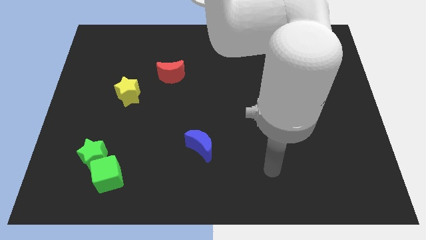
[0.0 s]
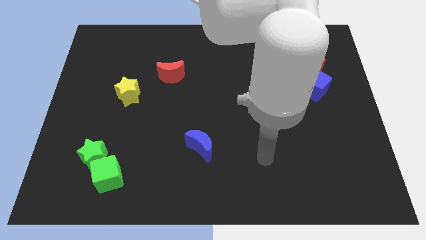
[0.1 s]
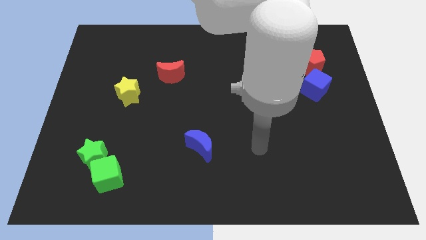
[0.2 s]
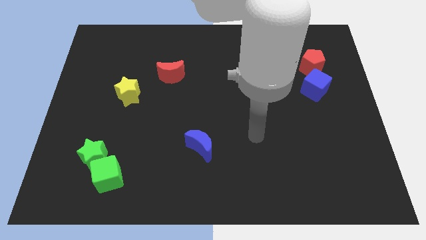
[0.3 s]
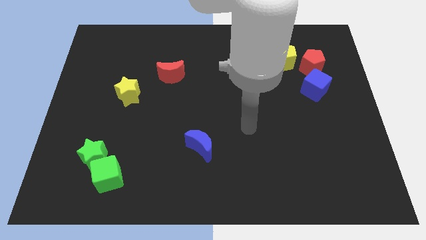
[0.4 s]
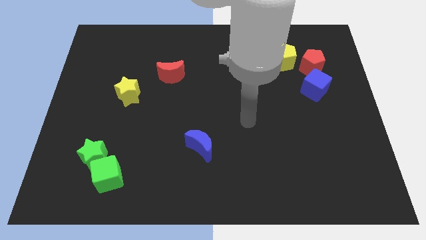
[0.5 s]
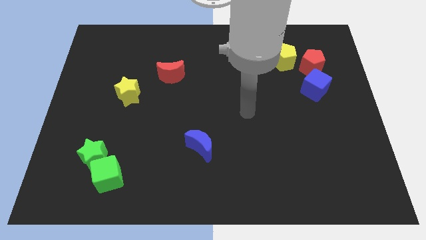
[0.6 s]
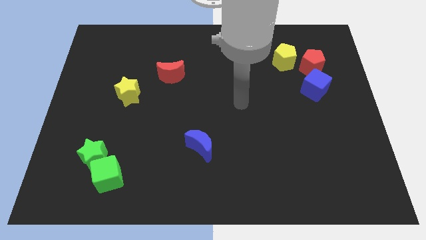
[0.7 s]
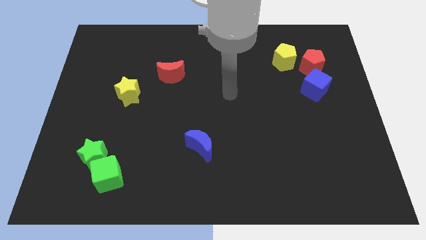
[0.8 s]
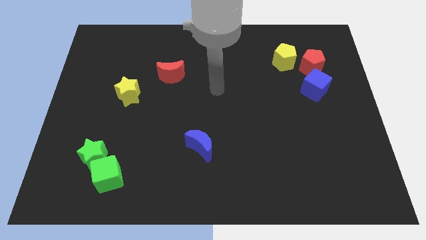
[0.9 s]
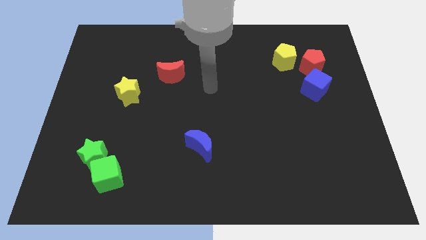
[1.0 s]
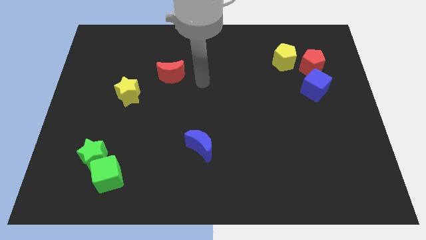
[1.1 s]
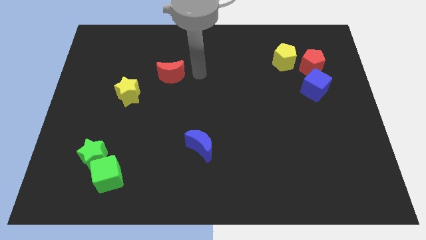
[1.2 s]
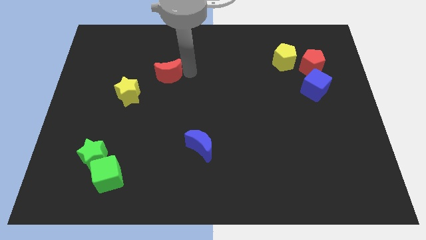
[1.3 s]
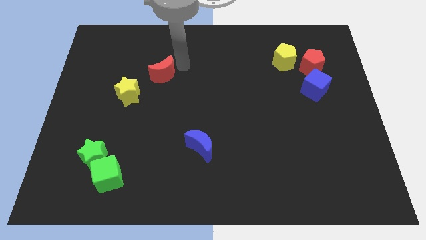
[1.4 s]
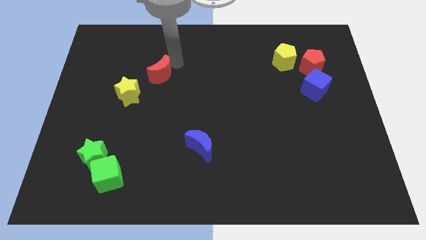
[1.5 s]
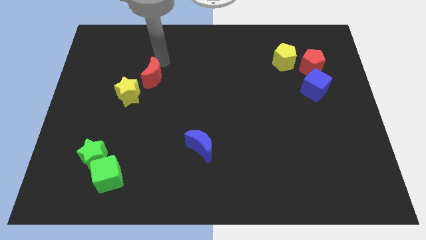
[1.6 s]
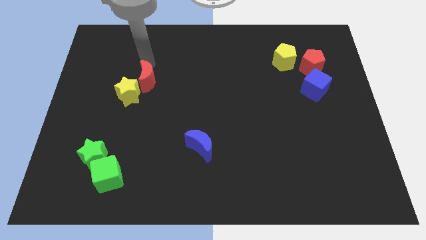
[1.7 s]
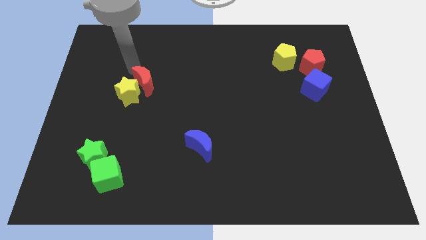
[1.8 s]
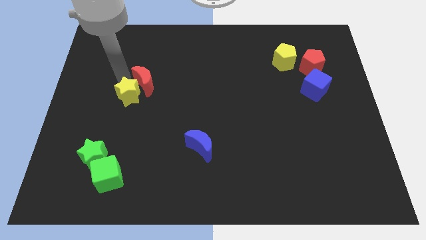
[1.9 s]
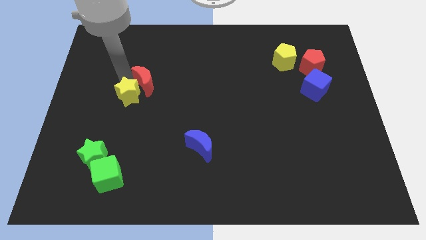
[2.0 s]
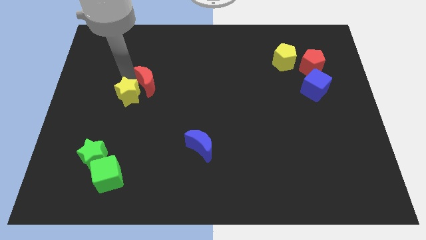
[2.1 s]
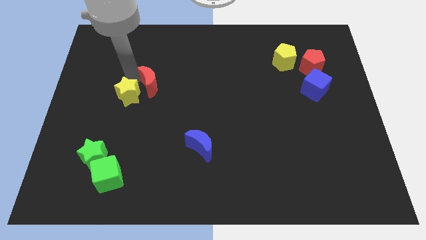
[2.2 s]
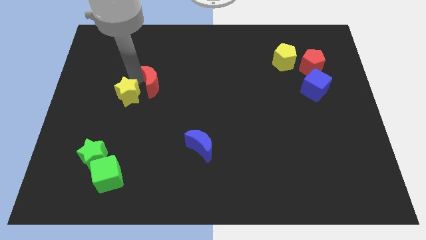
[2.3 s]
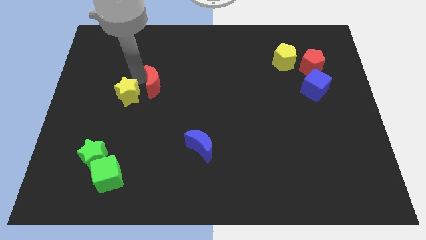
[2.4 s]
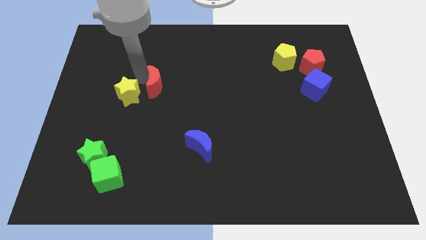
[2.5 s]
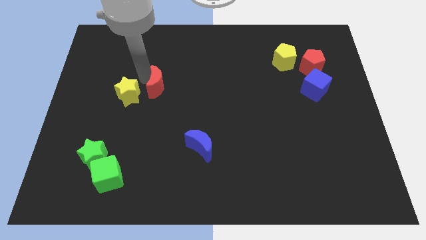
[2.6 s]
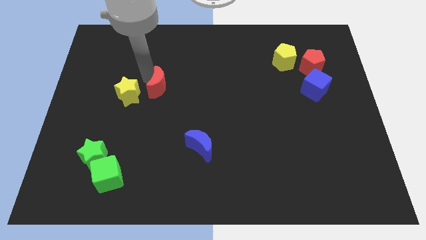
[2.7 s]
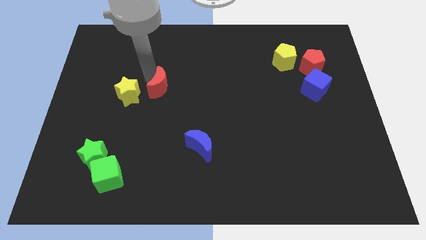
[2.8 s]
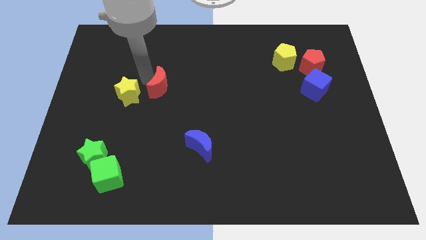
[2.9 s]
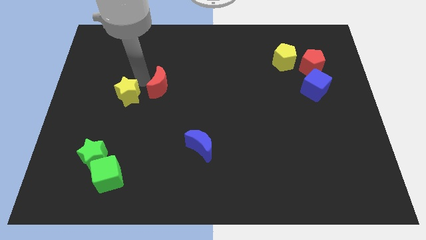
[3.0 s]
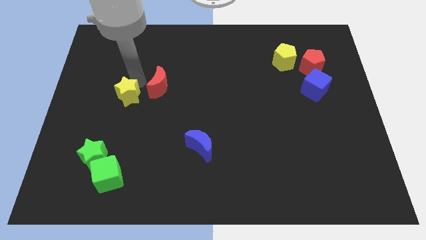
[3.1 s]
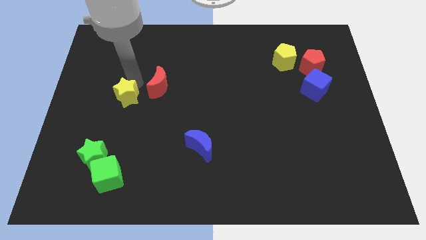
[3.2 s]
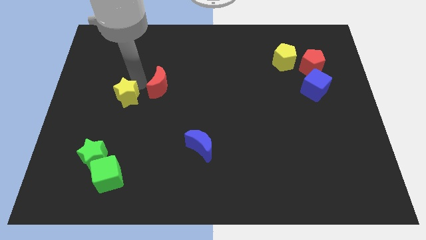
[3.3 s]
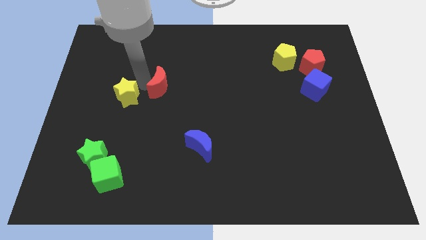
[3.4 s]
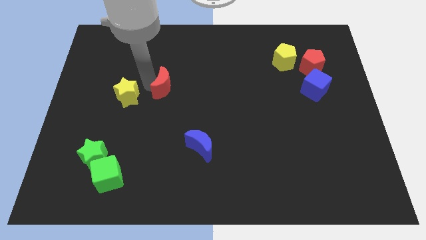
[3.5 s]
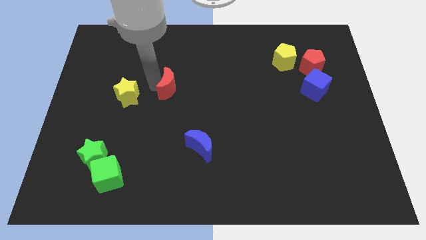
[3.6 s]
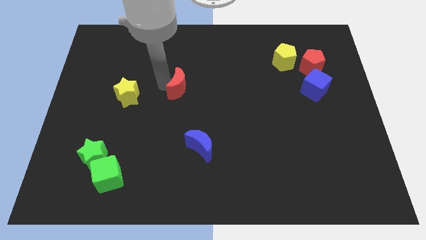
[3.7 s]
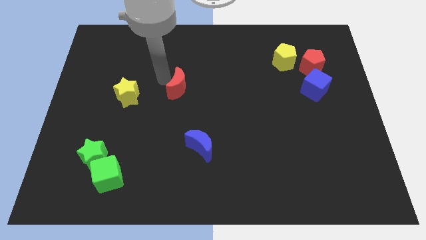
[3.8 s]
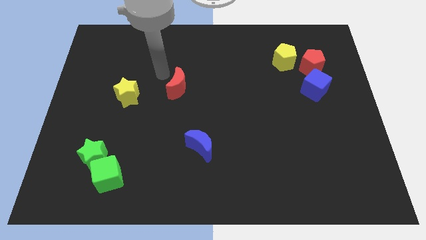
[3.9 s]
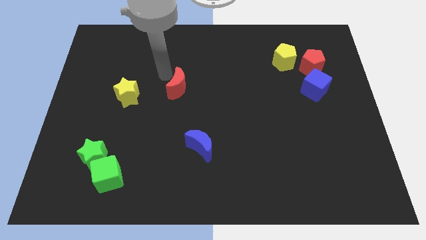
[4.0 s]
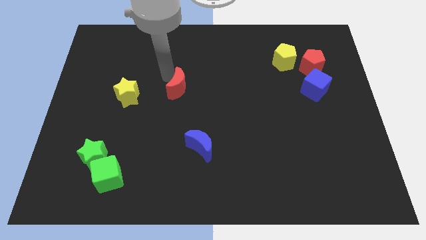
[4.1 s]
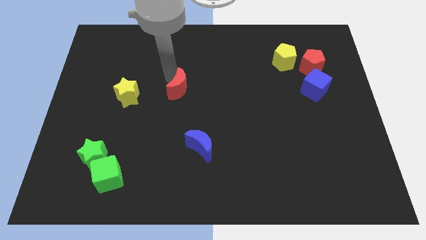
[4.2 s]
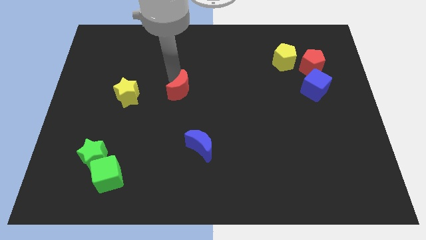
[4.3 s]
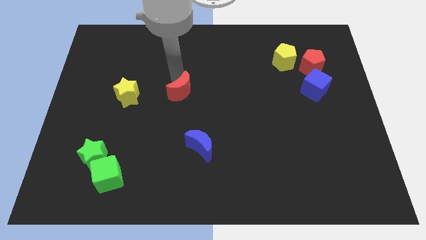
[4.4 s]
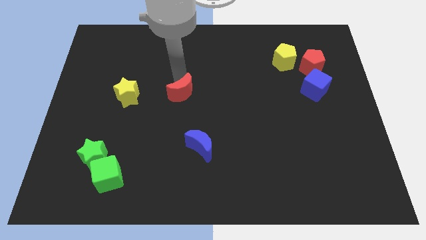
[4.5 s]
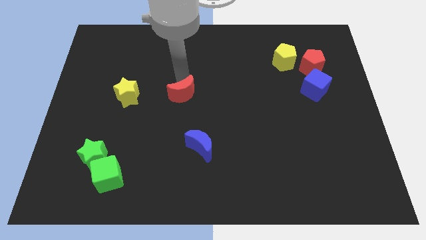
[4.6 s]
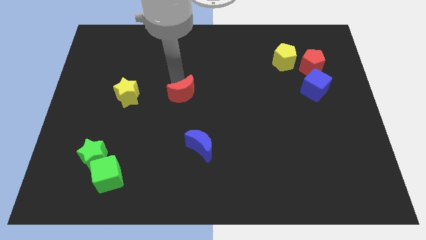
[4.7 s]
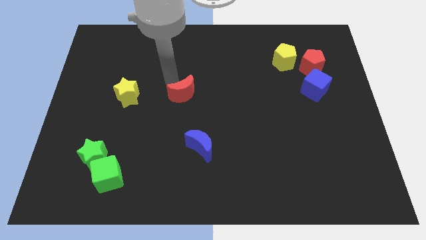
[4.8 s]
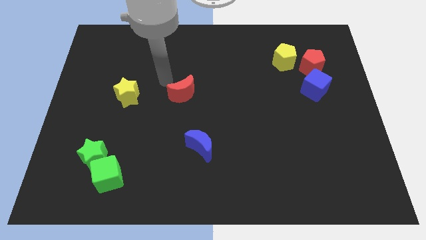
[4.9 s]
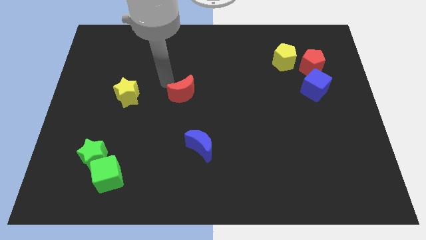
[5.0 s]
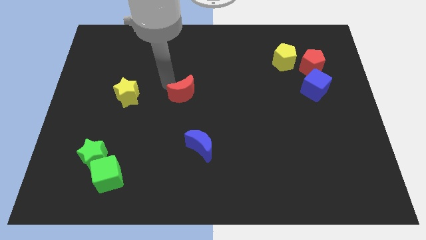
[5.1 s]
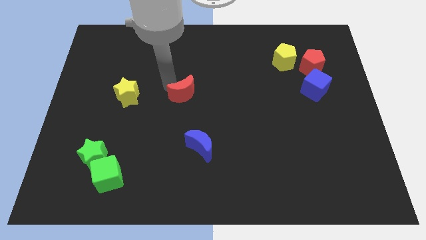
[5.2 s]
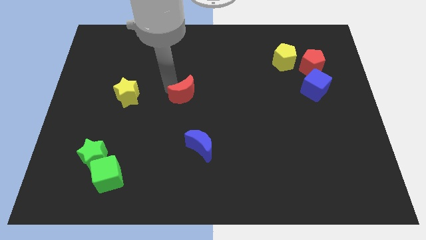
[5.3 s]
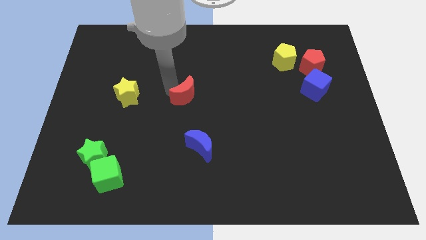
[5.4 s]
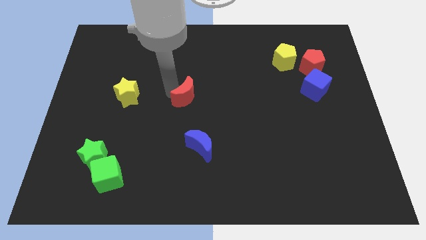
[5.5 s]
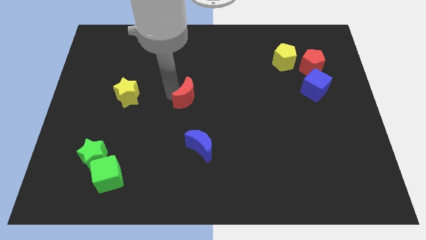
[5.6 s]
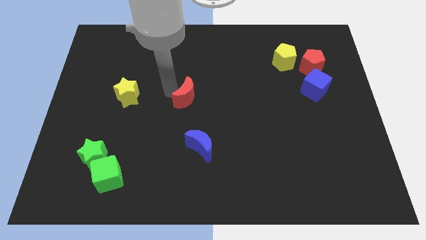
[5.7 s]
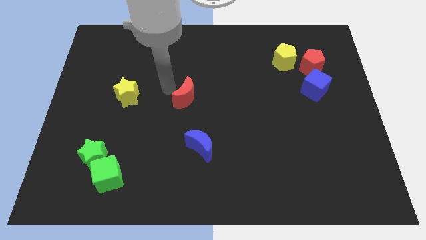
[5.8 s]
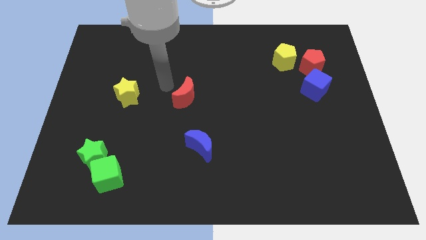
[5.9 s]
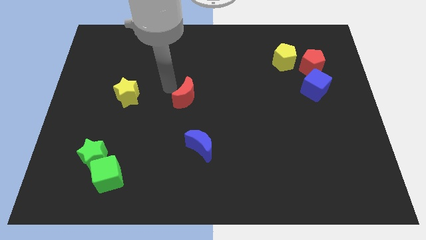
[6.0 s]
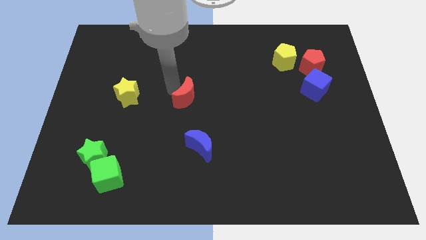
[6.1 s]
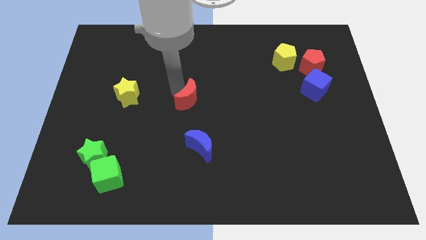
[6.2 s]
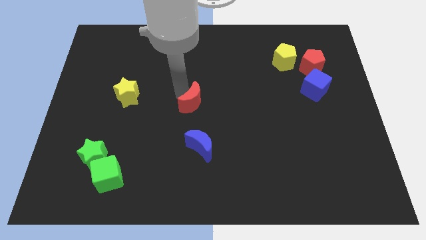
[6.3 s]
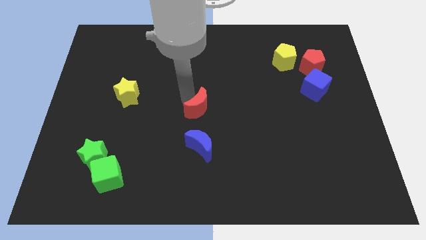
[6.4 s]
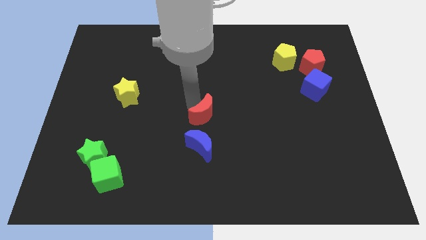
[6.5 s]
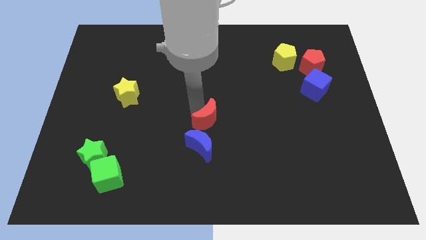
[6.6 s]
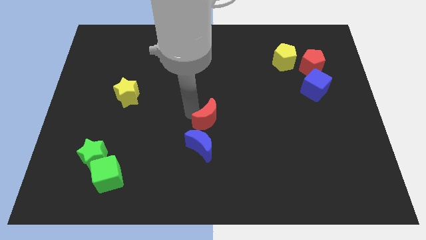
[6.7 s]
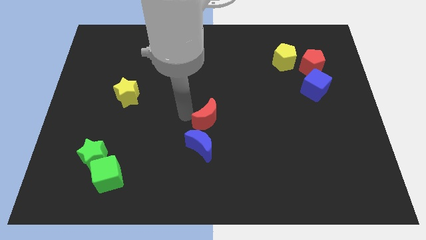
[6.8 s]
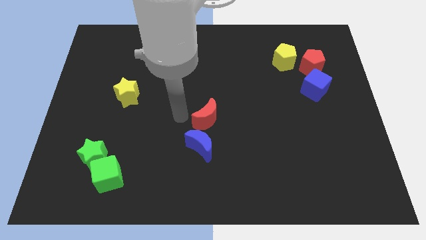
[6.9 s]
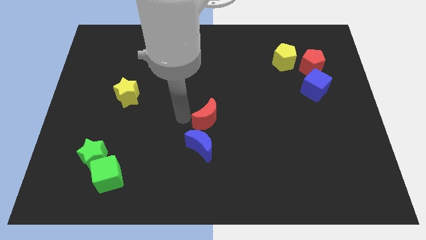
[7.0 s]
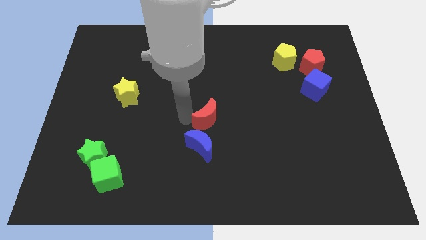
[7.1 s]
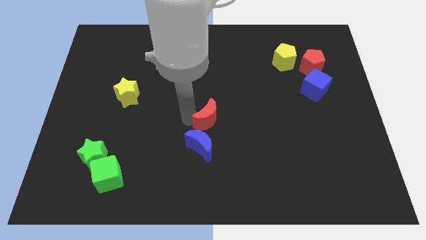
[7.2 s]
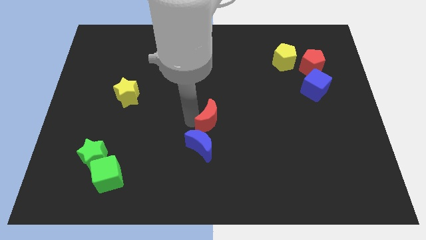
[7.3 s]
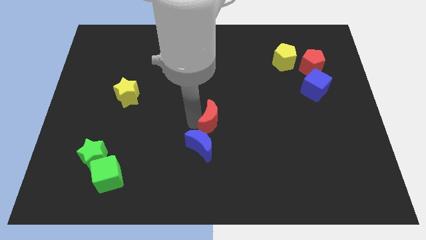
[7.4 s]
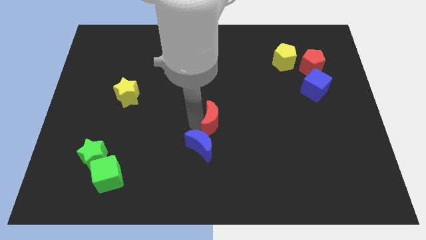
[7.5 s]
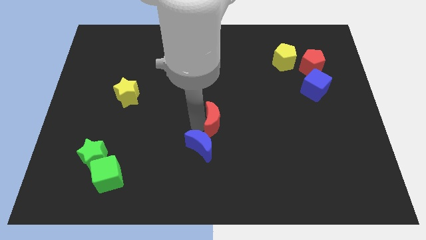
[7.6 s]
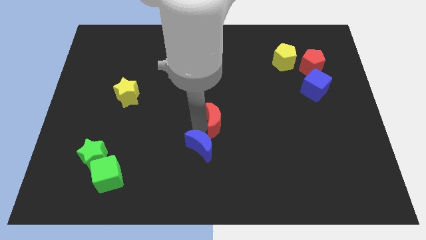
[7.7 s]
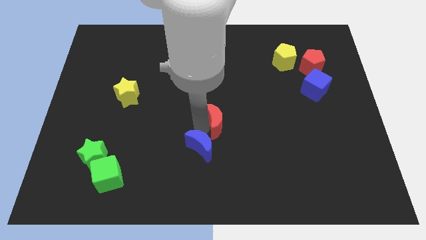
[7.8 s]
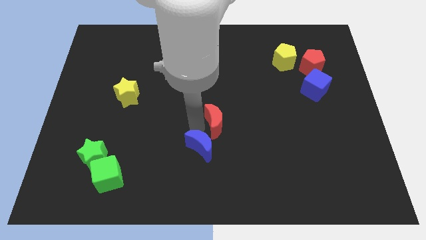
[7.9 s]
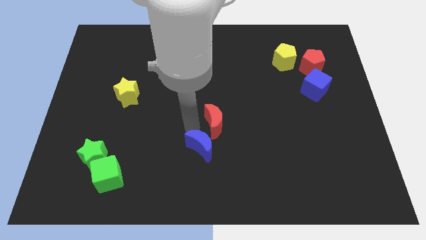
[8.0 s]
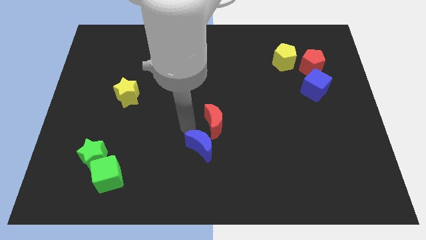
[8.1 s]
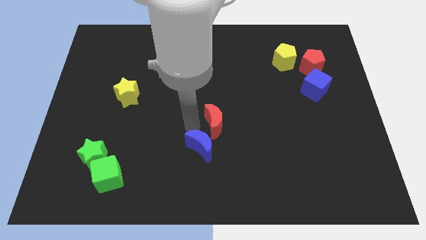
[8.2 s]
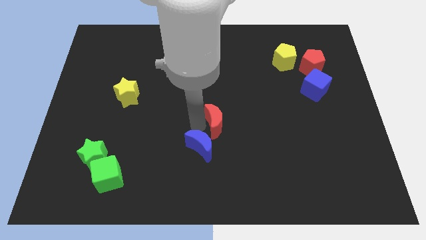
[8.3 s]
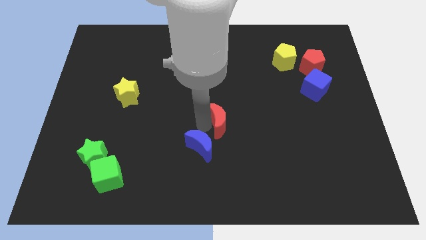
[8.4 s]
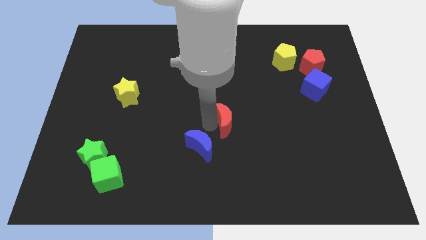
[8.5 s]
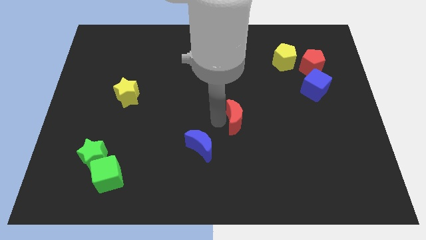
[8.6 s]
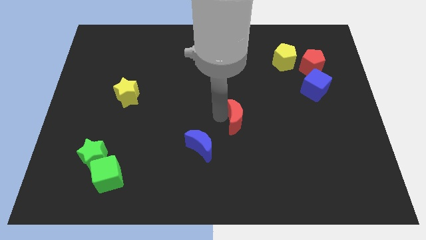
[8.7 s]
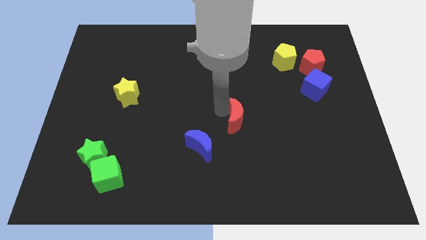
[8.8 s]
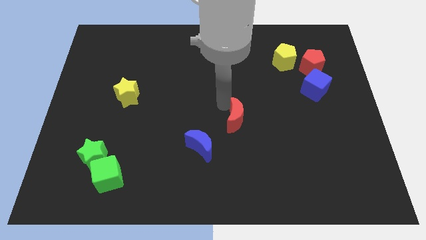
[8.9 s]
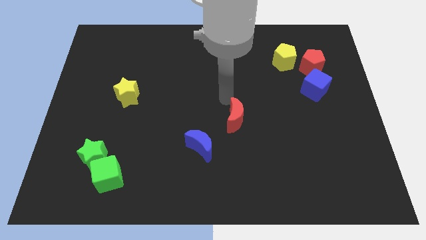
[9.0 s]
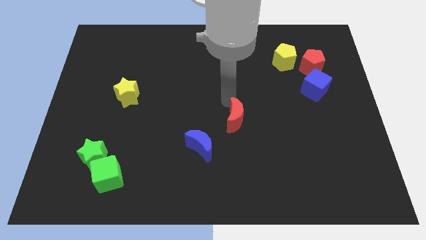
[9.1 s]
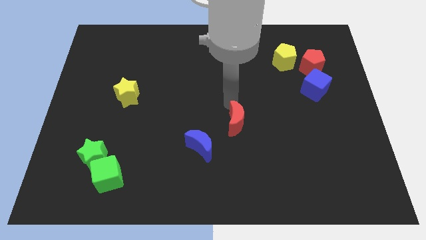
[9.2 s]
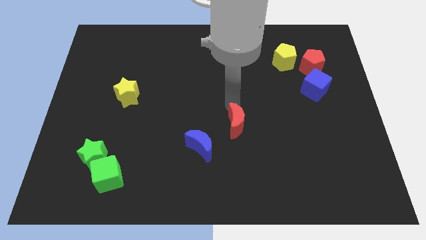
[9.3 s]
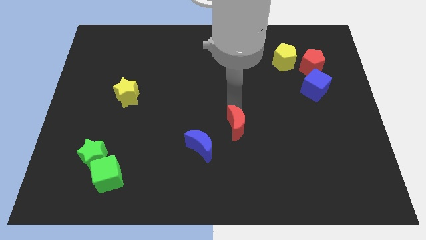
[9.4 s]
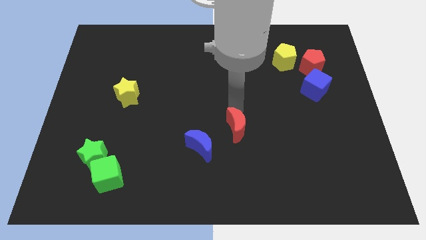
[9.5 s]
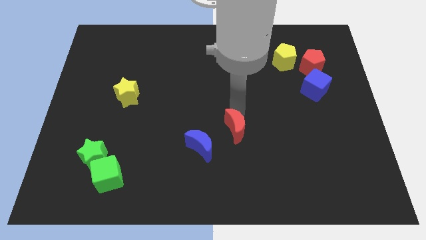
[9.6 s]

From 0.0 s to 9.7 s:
slide the red moon to the right of the blue moon
